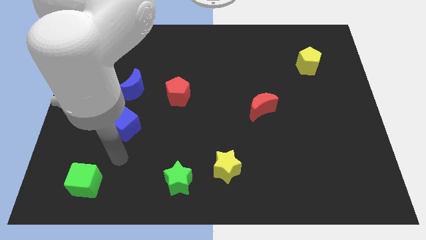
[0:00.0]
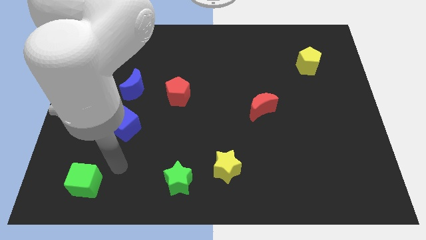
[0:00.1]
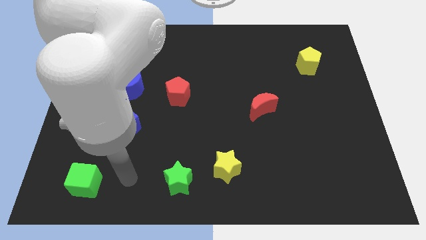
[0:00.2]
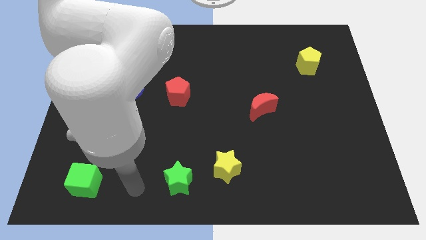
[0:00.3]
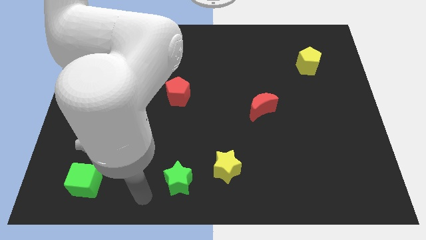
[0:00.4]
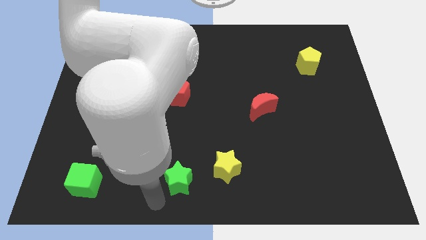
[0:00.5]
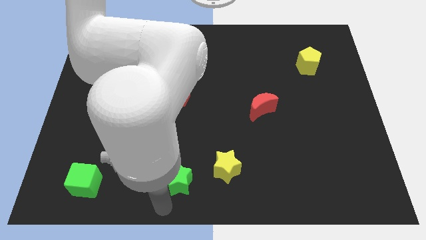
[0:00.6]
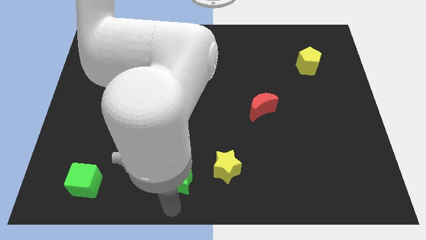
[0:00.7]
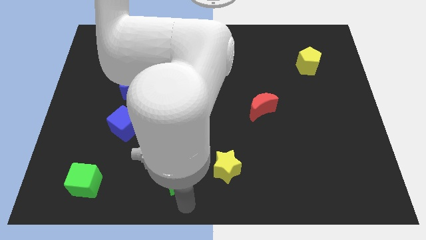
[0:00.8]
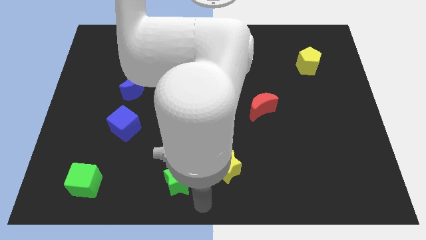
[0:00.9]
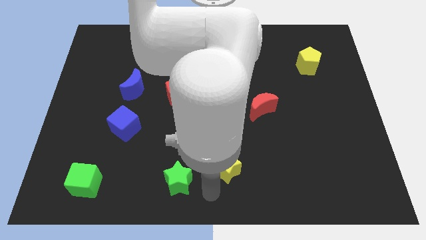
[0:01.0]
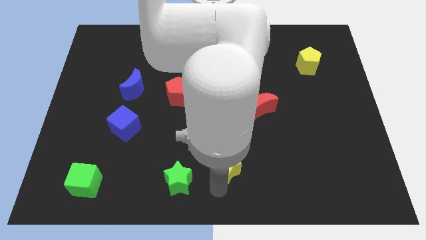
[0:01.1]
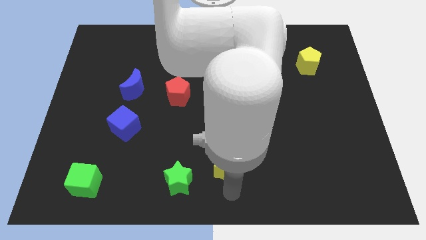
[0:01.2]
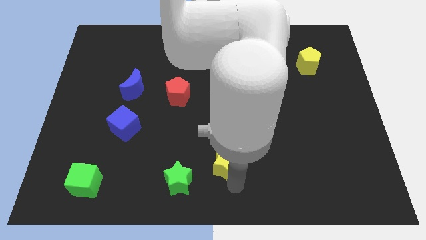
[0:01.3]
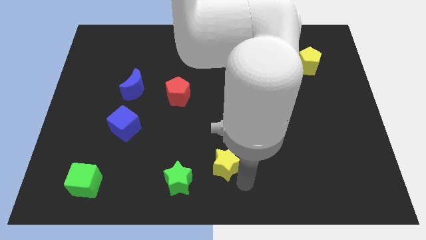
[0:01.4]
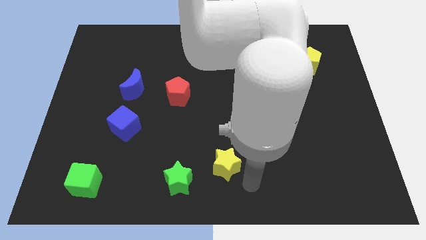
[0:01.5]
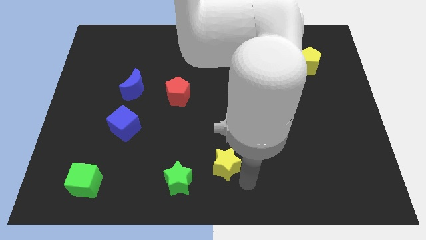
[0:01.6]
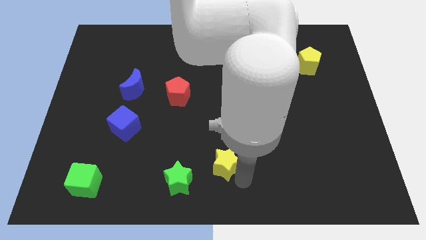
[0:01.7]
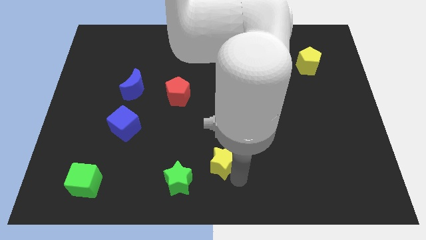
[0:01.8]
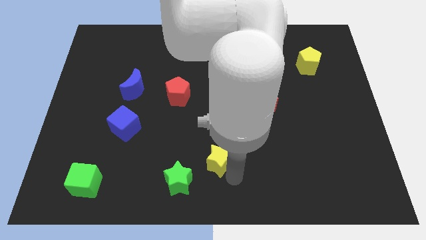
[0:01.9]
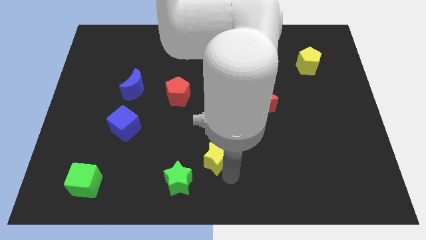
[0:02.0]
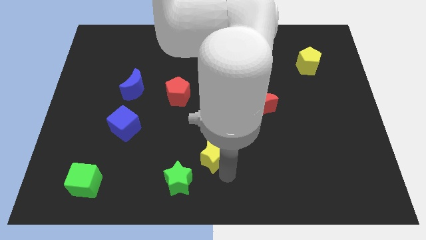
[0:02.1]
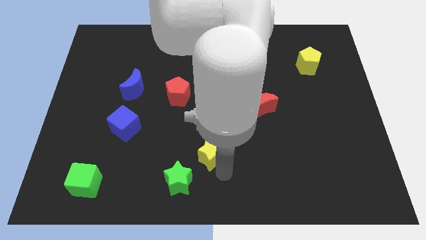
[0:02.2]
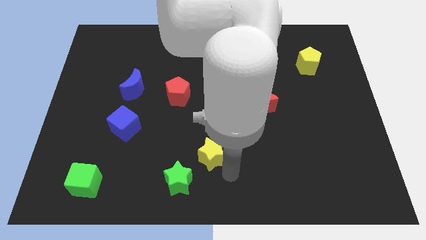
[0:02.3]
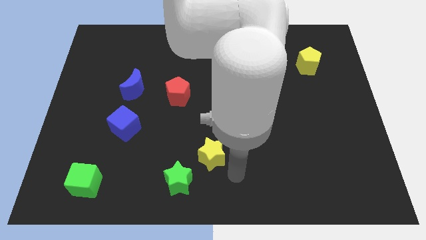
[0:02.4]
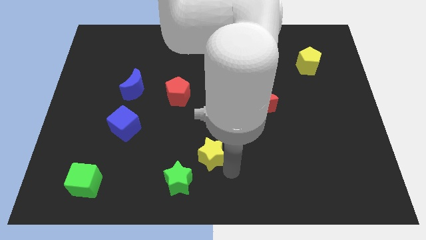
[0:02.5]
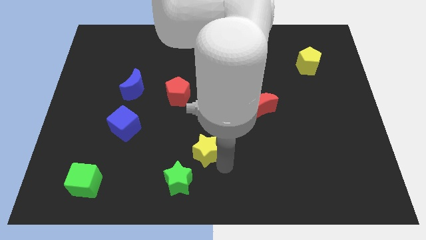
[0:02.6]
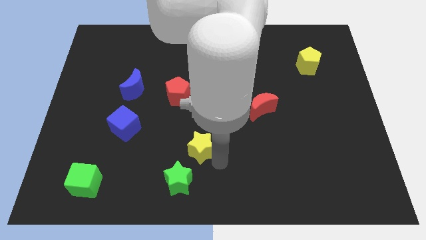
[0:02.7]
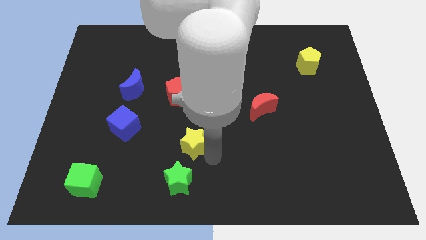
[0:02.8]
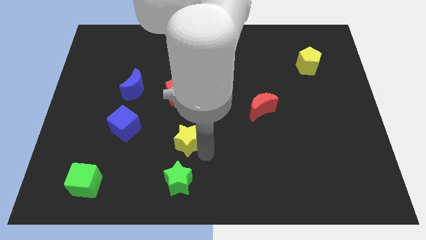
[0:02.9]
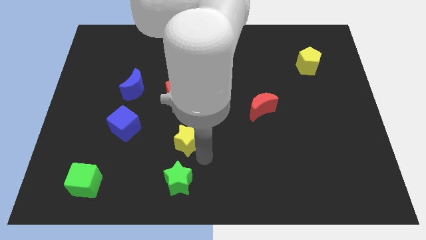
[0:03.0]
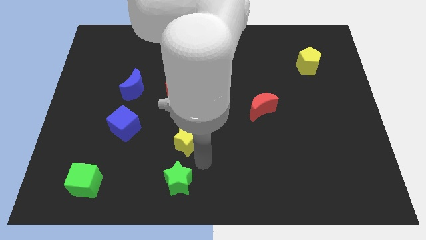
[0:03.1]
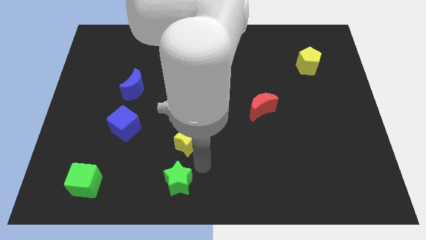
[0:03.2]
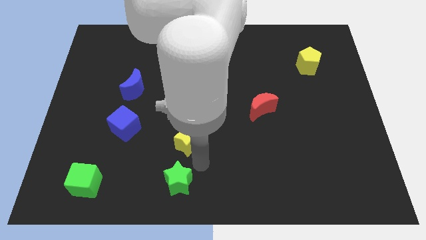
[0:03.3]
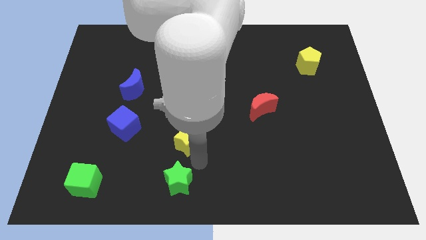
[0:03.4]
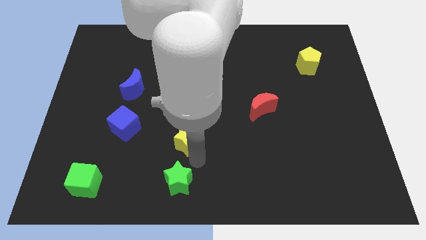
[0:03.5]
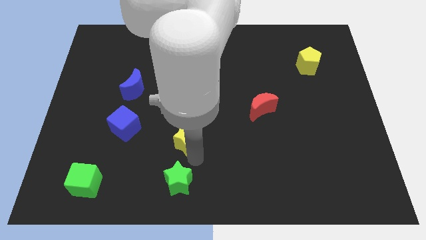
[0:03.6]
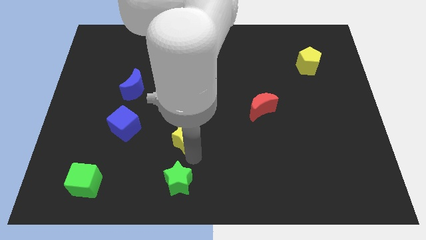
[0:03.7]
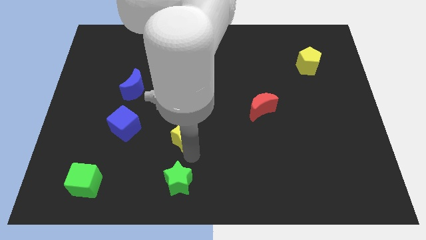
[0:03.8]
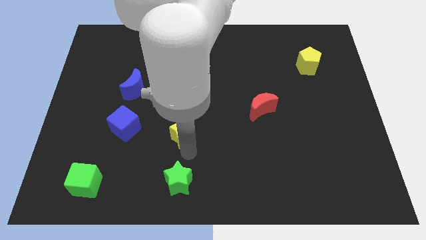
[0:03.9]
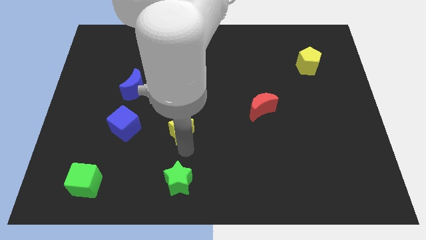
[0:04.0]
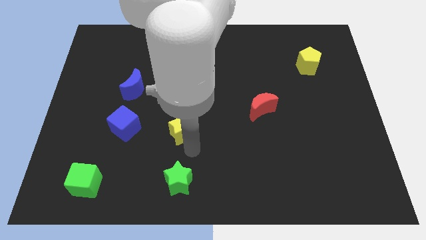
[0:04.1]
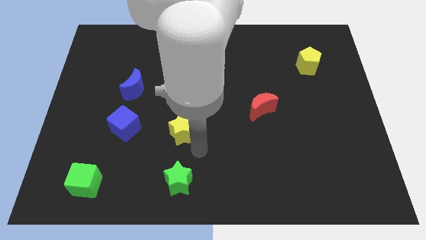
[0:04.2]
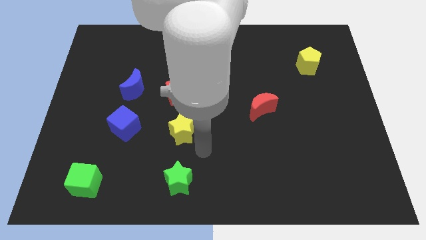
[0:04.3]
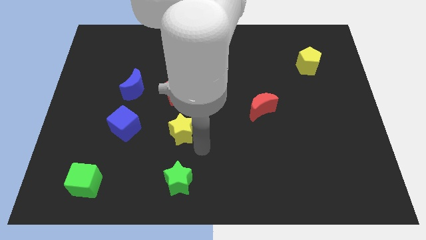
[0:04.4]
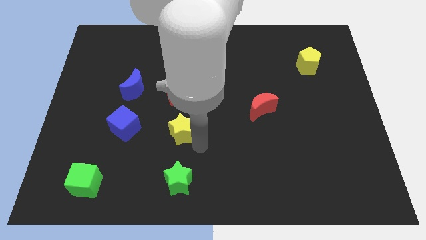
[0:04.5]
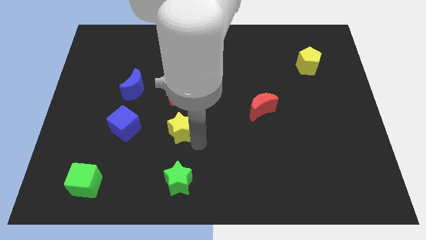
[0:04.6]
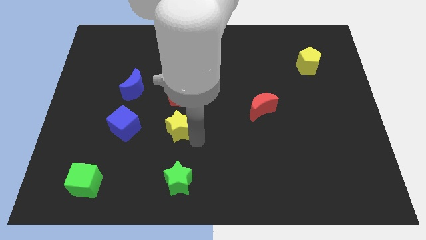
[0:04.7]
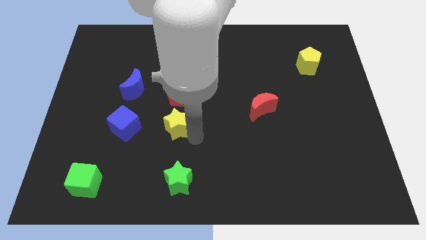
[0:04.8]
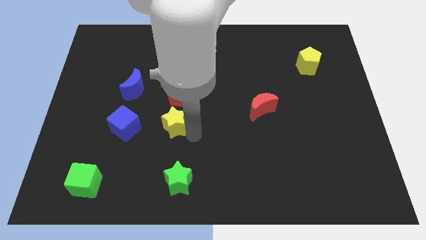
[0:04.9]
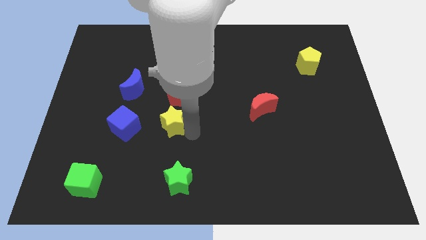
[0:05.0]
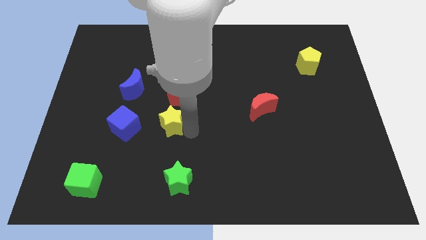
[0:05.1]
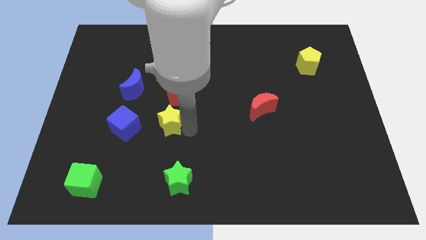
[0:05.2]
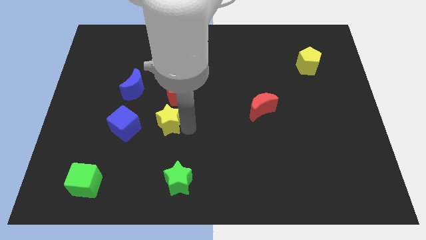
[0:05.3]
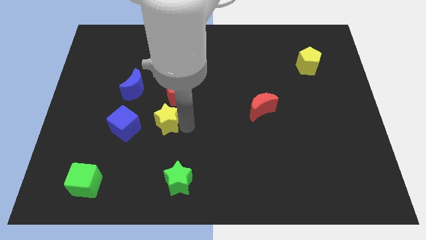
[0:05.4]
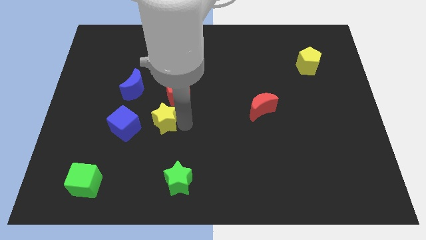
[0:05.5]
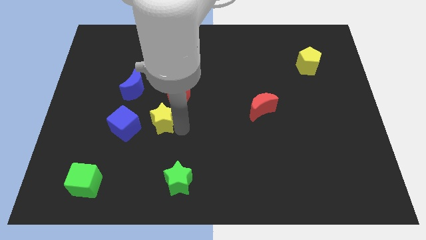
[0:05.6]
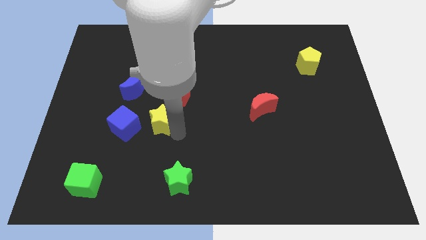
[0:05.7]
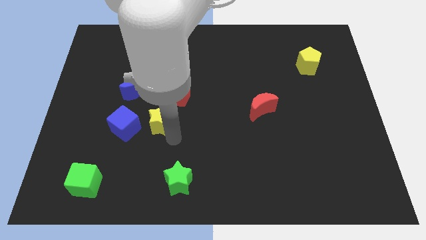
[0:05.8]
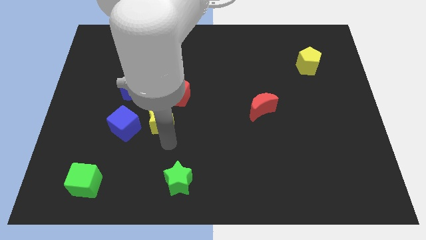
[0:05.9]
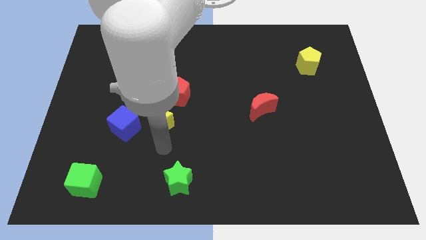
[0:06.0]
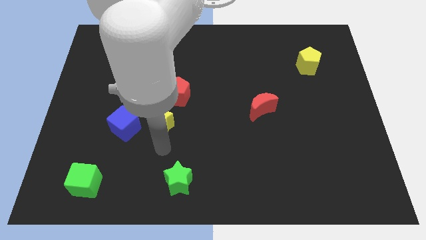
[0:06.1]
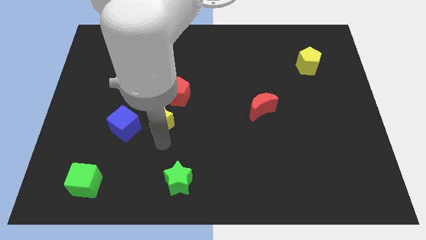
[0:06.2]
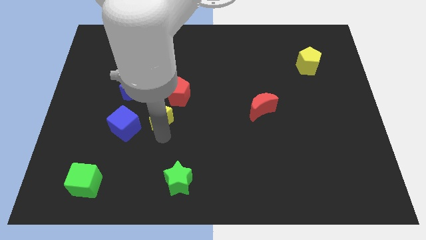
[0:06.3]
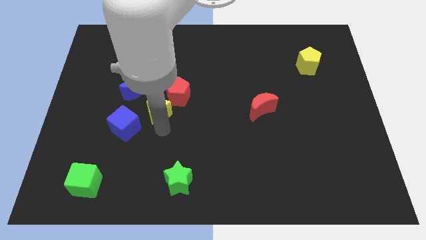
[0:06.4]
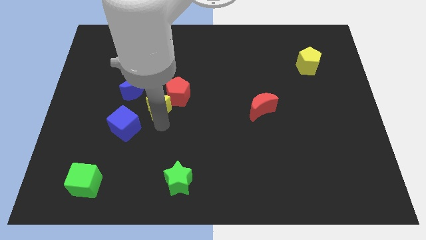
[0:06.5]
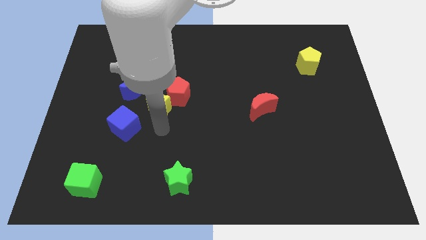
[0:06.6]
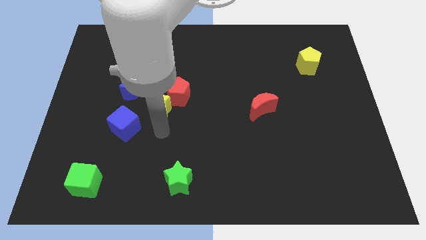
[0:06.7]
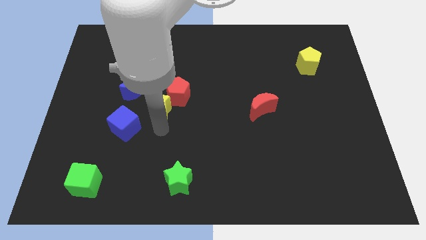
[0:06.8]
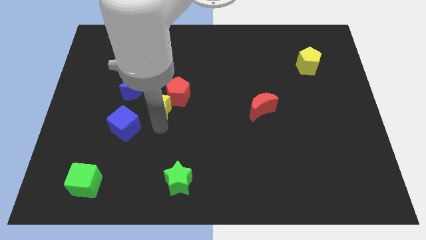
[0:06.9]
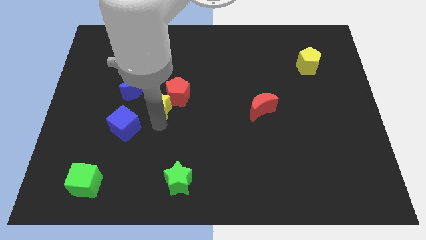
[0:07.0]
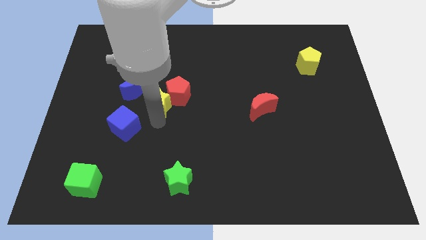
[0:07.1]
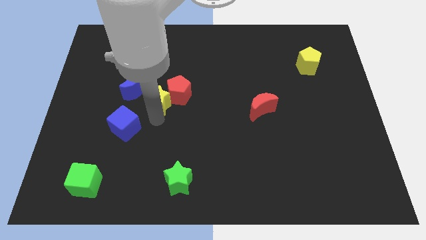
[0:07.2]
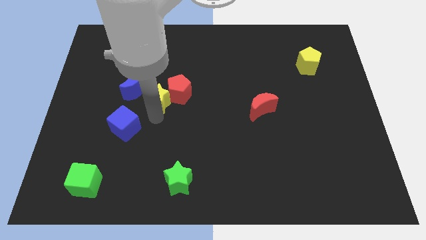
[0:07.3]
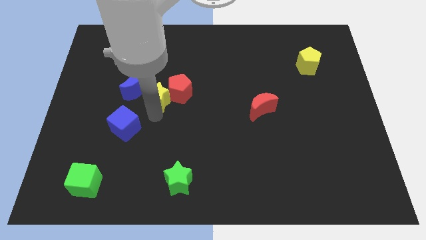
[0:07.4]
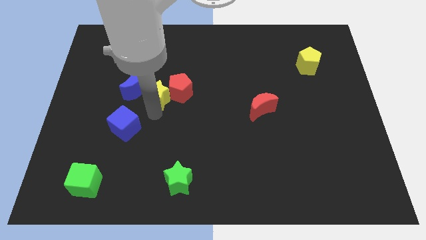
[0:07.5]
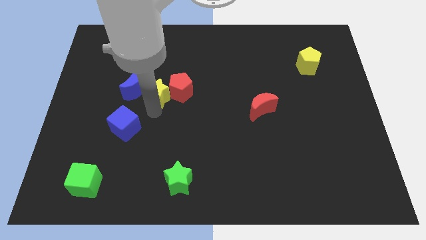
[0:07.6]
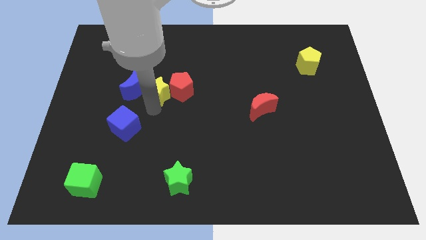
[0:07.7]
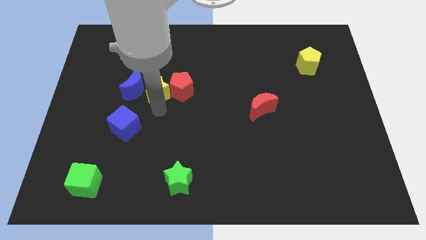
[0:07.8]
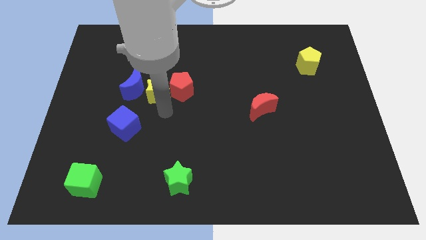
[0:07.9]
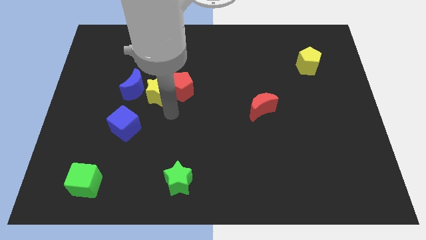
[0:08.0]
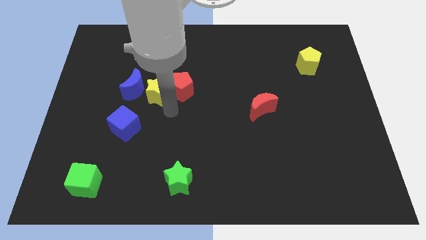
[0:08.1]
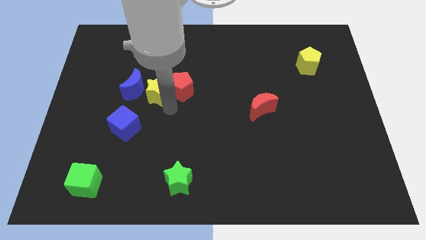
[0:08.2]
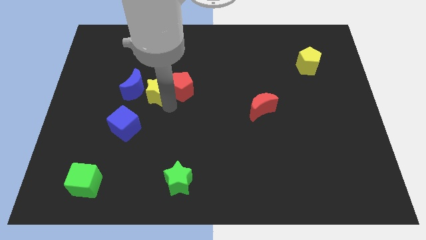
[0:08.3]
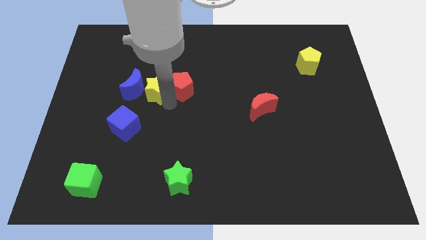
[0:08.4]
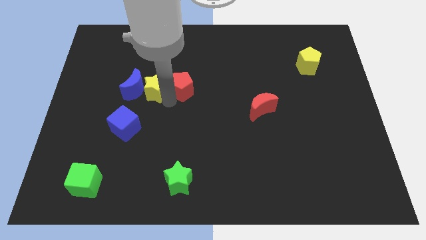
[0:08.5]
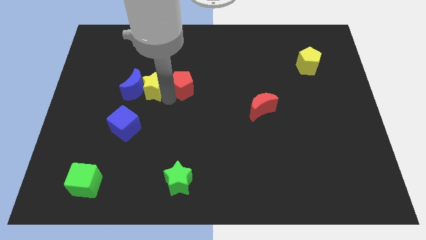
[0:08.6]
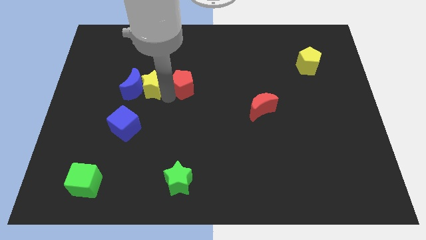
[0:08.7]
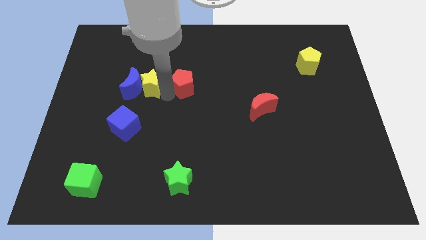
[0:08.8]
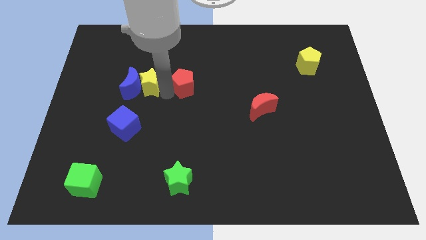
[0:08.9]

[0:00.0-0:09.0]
move the yellow star to the top of the blue cube
